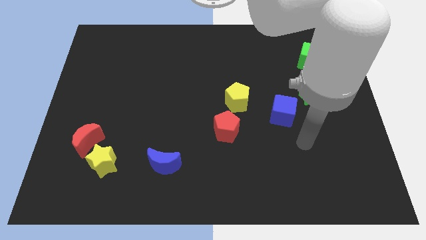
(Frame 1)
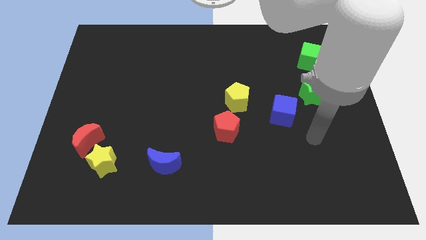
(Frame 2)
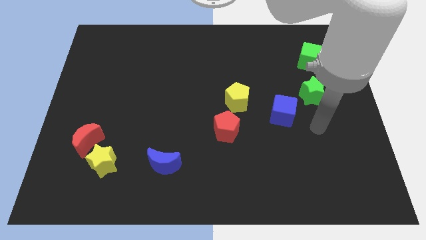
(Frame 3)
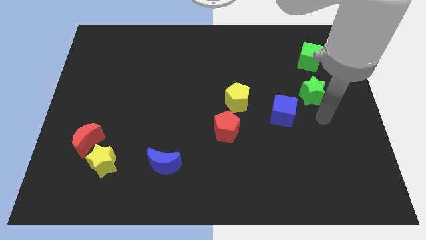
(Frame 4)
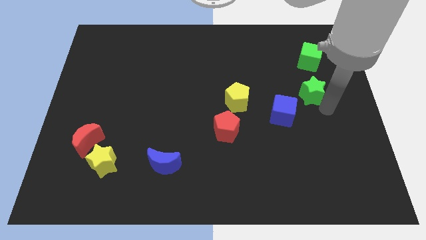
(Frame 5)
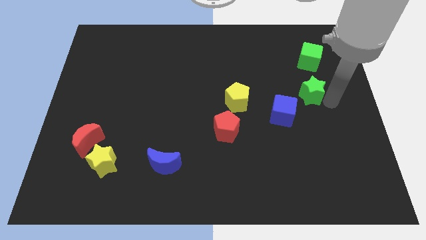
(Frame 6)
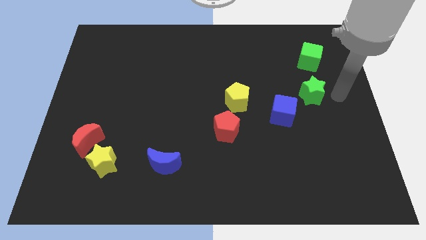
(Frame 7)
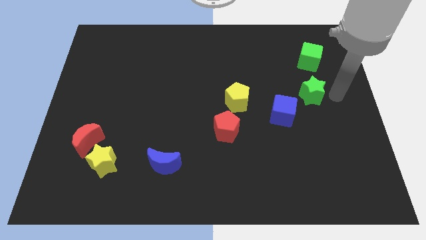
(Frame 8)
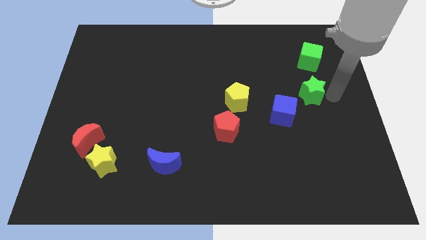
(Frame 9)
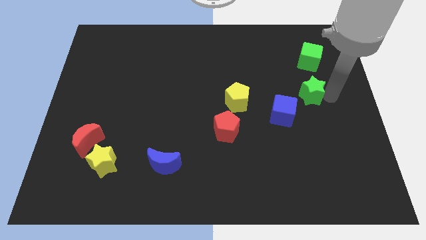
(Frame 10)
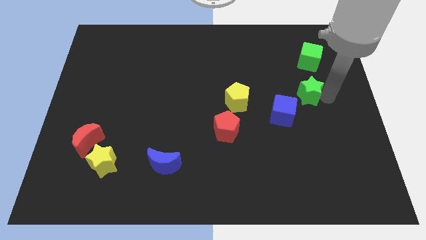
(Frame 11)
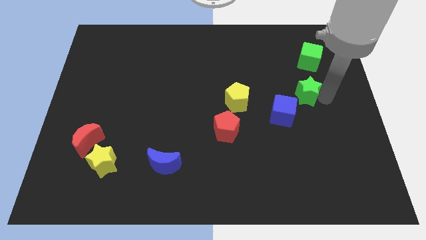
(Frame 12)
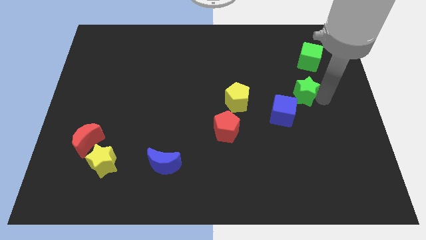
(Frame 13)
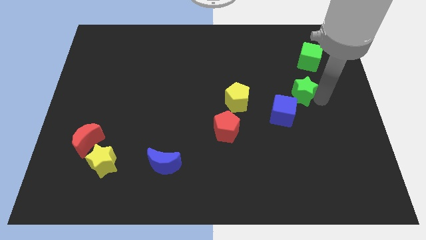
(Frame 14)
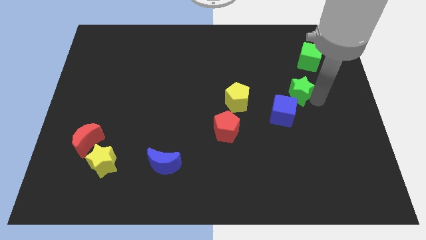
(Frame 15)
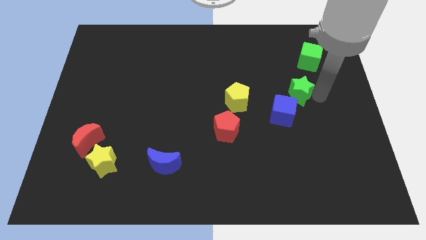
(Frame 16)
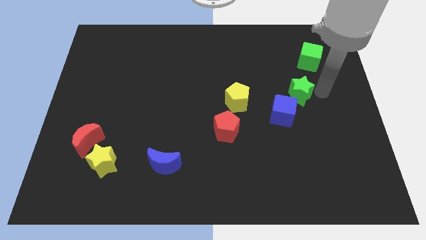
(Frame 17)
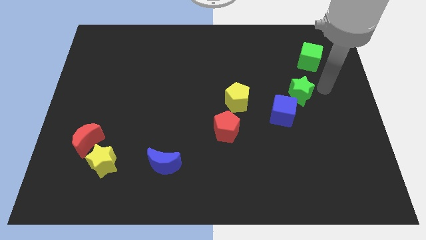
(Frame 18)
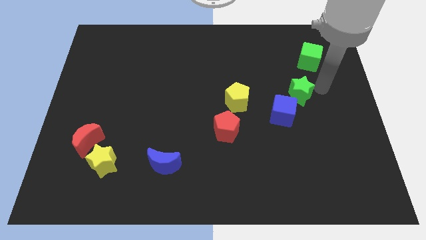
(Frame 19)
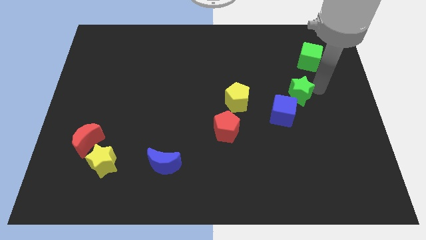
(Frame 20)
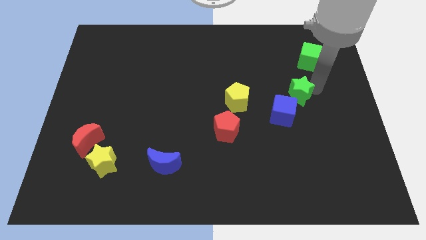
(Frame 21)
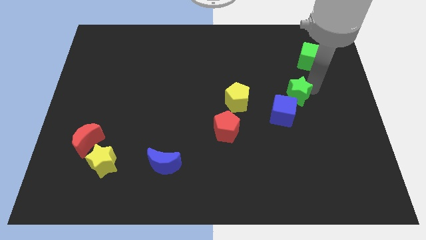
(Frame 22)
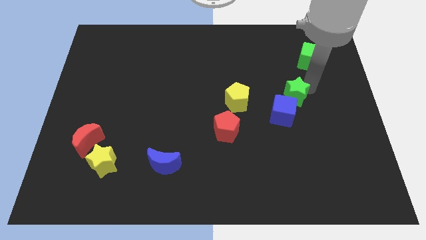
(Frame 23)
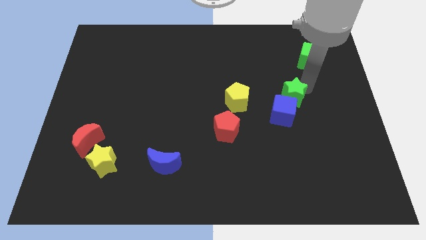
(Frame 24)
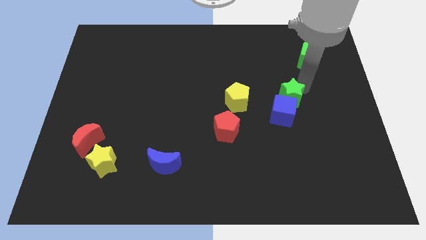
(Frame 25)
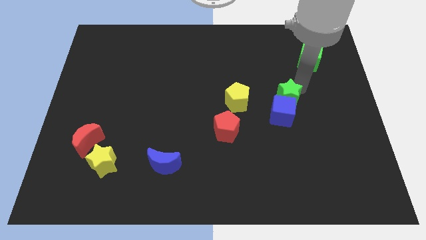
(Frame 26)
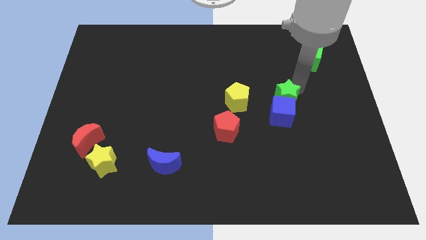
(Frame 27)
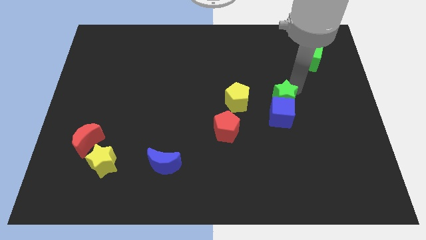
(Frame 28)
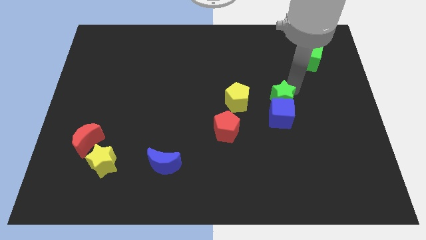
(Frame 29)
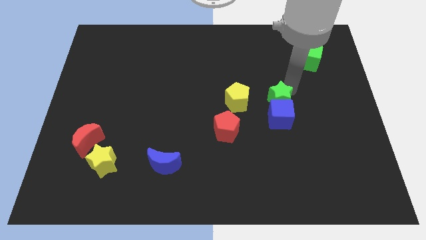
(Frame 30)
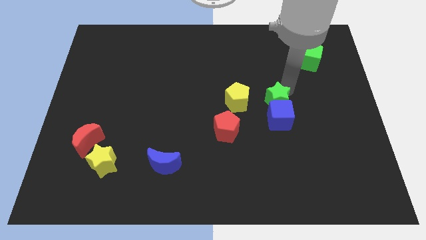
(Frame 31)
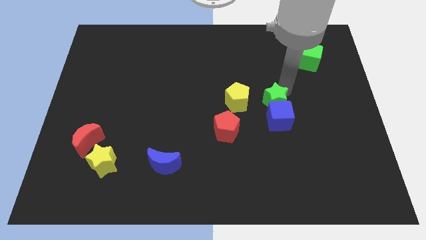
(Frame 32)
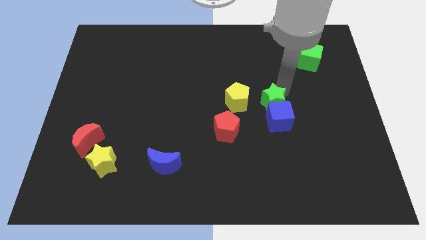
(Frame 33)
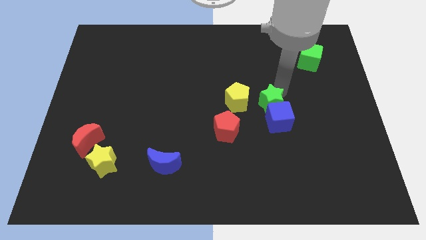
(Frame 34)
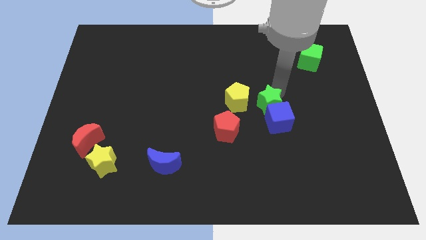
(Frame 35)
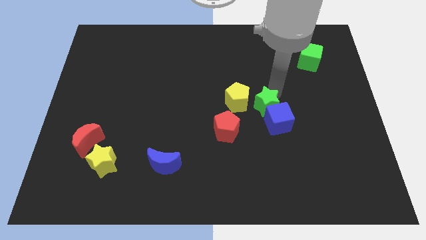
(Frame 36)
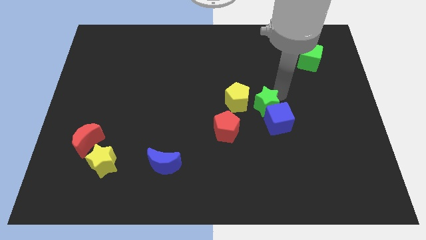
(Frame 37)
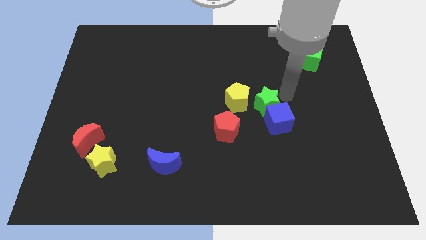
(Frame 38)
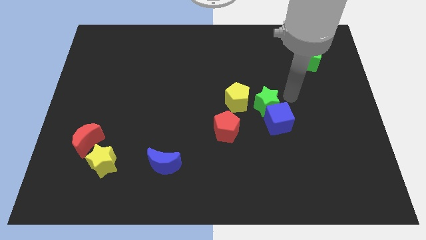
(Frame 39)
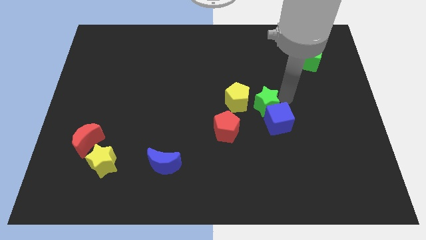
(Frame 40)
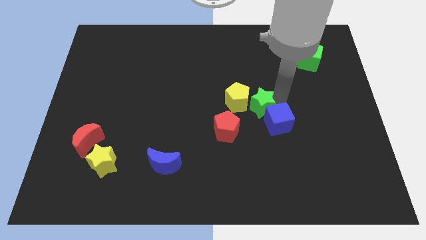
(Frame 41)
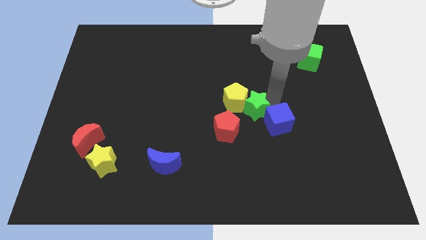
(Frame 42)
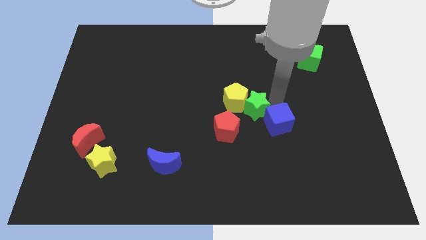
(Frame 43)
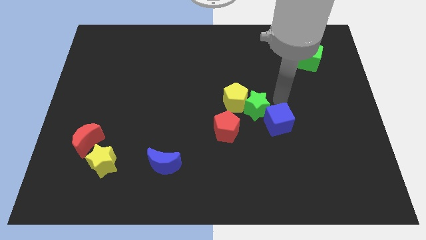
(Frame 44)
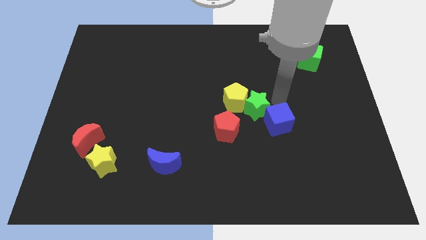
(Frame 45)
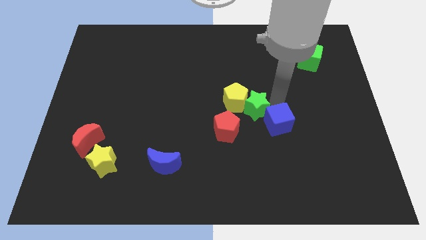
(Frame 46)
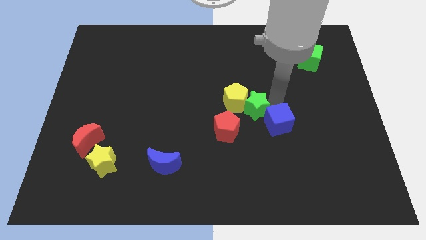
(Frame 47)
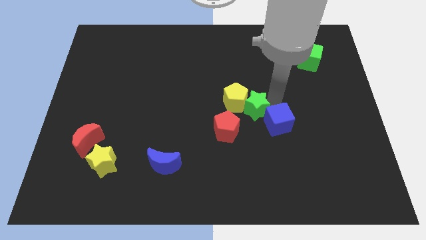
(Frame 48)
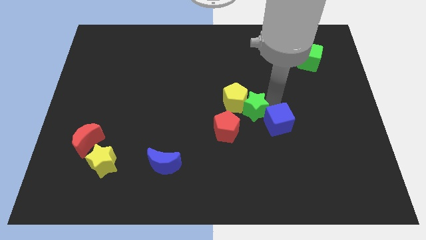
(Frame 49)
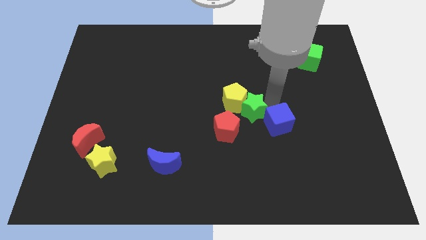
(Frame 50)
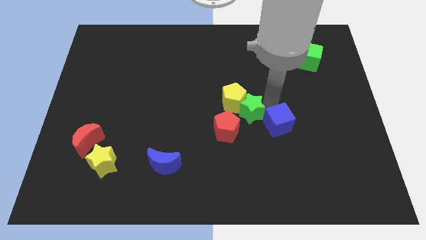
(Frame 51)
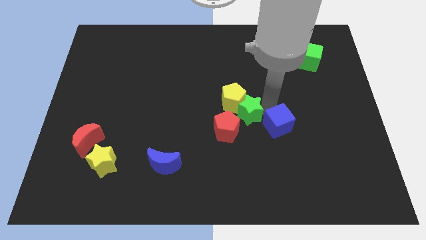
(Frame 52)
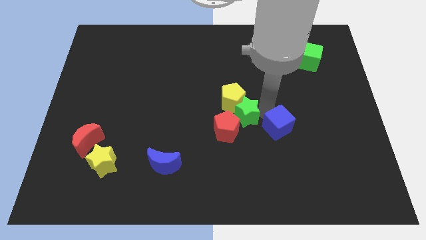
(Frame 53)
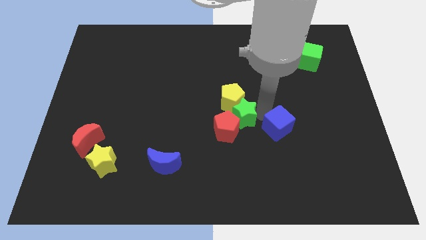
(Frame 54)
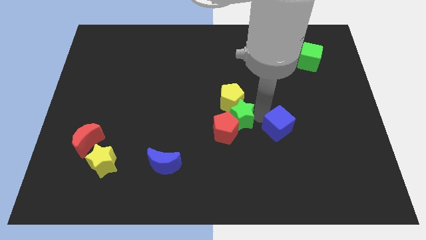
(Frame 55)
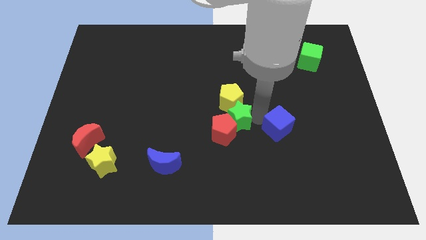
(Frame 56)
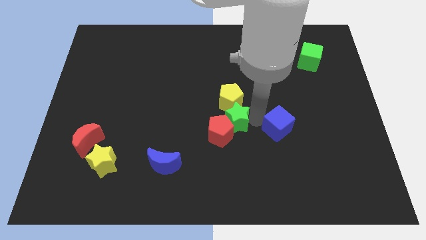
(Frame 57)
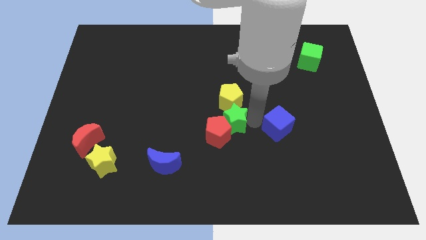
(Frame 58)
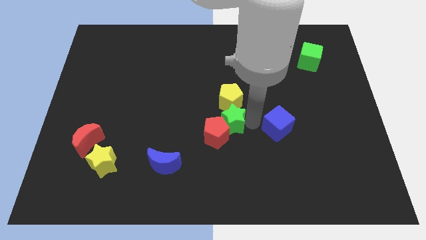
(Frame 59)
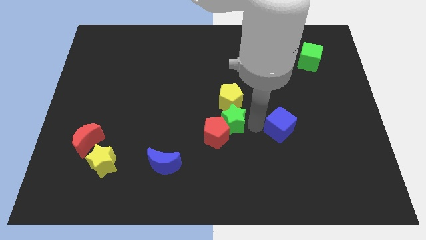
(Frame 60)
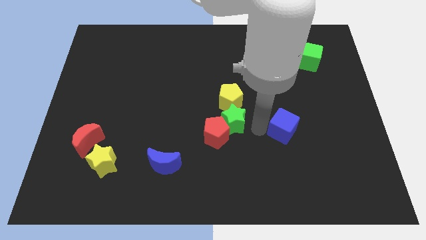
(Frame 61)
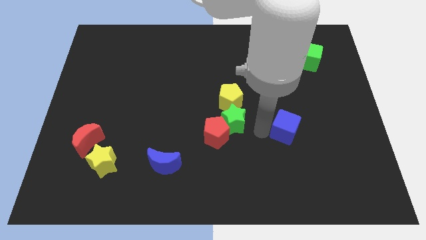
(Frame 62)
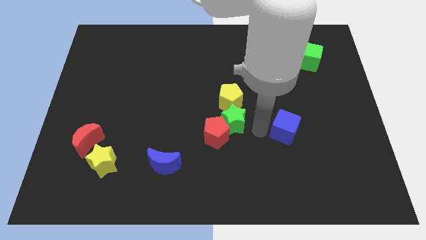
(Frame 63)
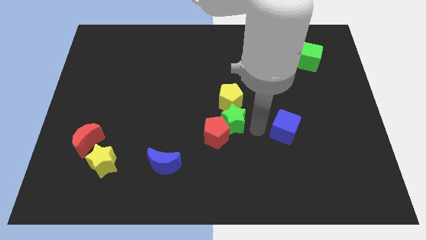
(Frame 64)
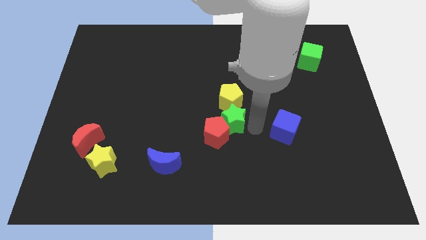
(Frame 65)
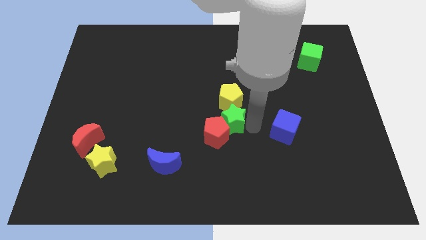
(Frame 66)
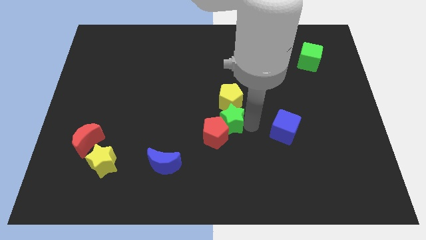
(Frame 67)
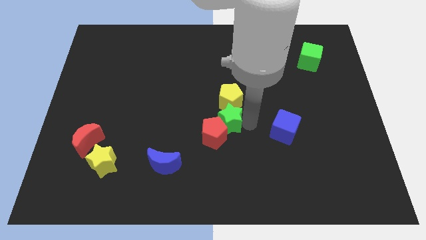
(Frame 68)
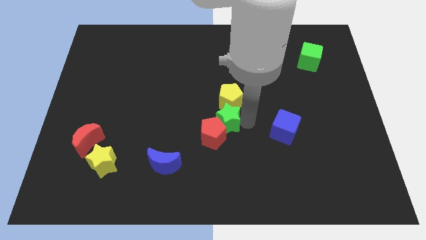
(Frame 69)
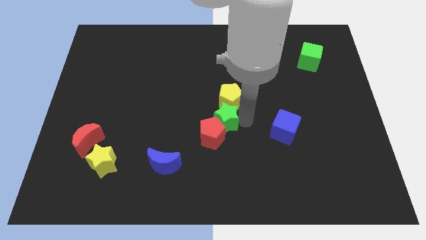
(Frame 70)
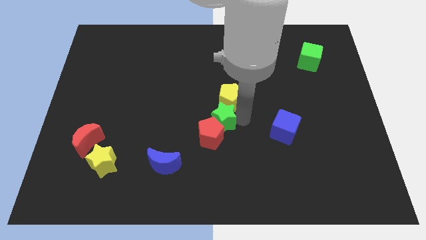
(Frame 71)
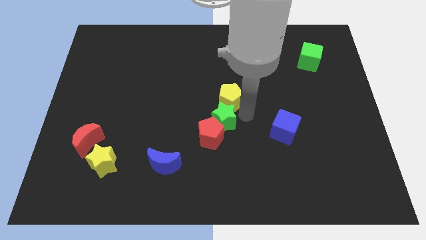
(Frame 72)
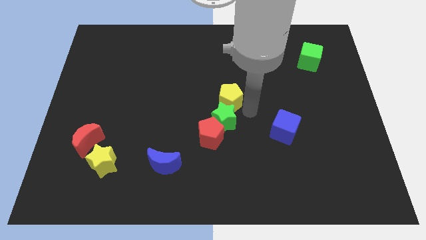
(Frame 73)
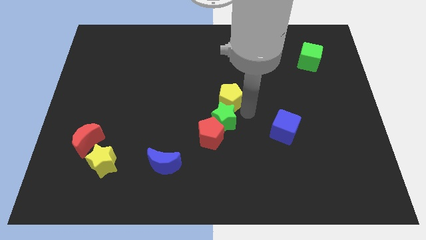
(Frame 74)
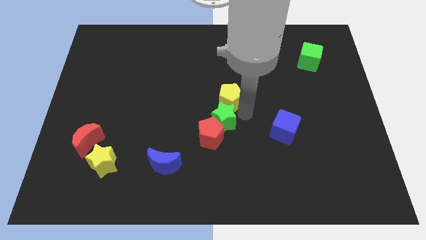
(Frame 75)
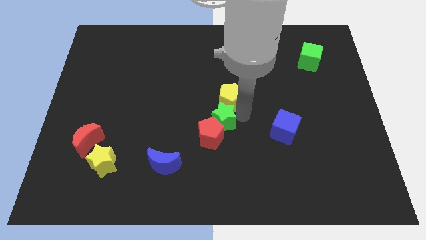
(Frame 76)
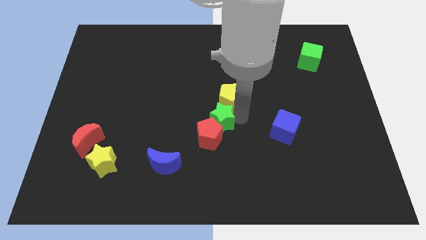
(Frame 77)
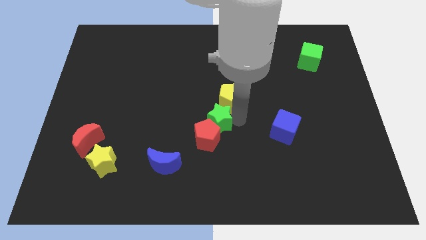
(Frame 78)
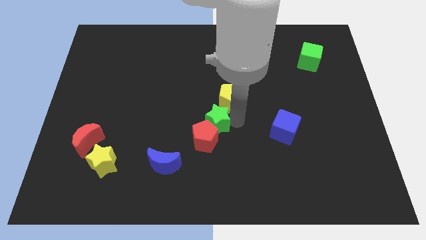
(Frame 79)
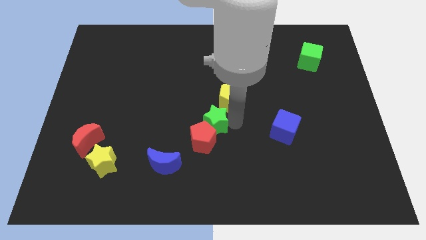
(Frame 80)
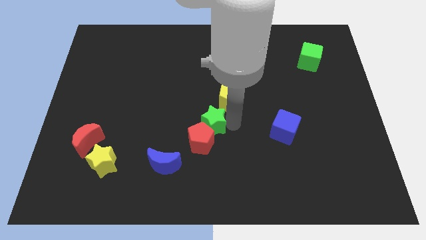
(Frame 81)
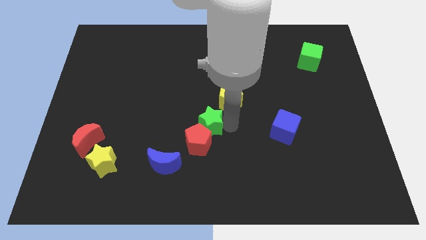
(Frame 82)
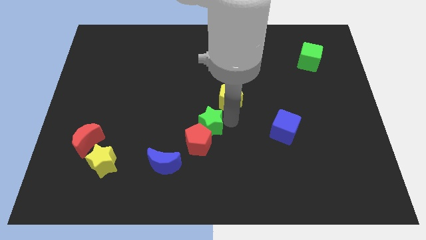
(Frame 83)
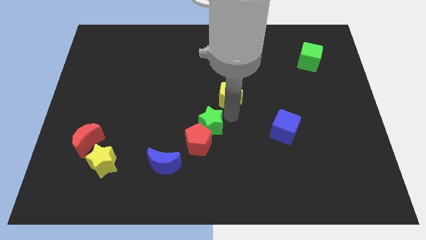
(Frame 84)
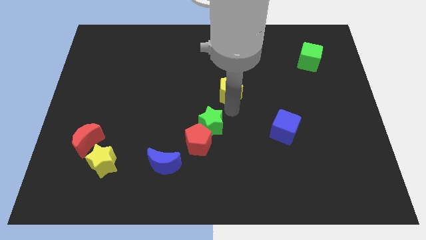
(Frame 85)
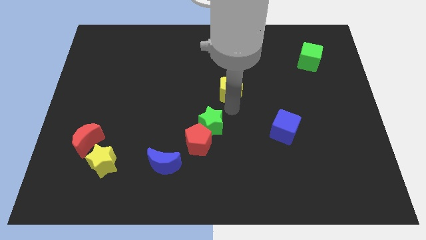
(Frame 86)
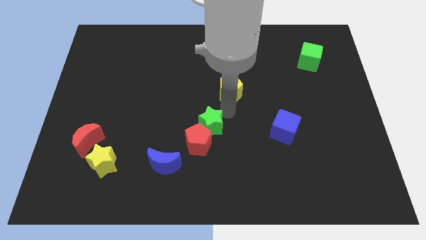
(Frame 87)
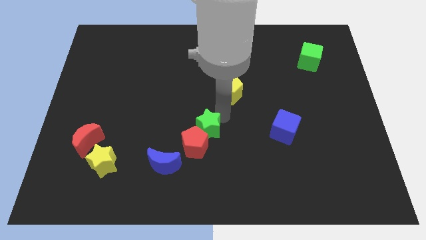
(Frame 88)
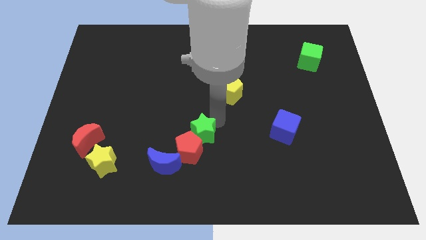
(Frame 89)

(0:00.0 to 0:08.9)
put the green star to the top right of the blue moon
